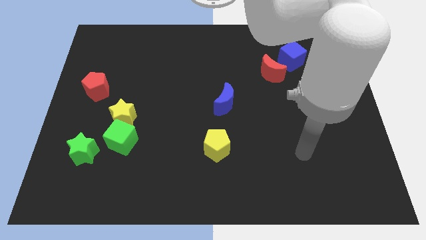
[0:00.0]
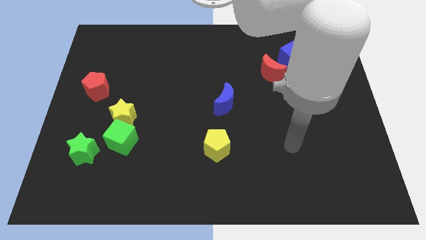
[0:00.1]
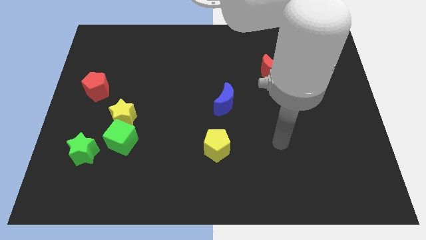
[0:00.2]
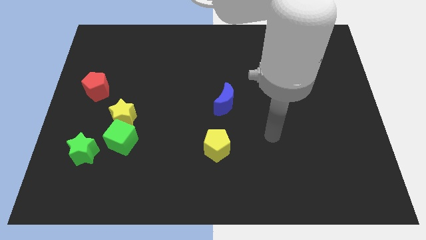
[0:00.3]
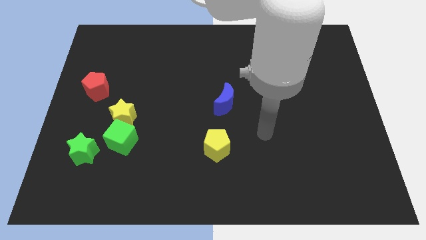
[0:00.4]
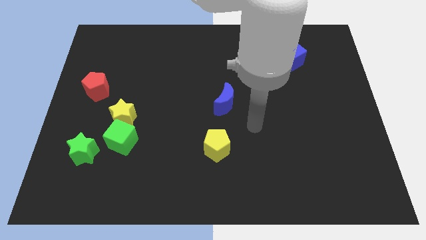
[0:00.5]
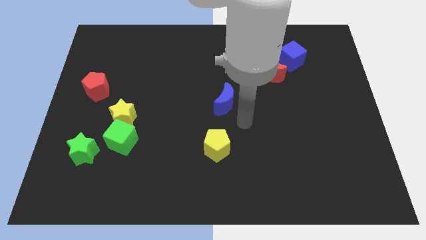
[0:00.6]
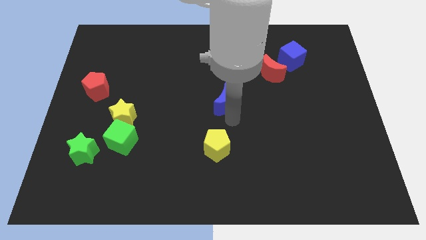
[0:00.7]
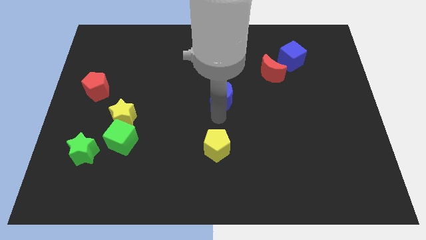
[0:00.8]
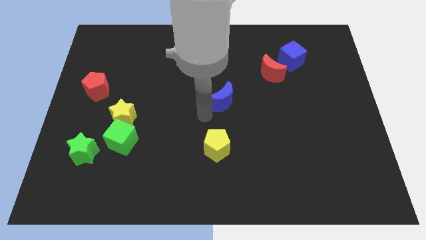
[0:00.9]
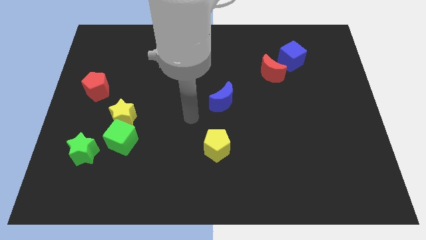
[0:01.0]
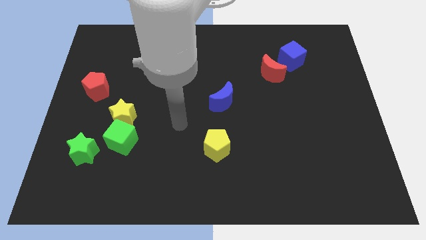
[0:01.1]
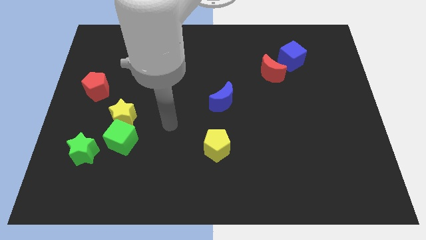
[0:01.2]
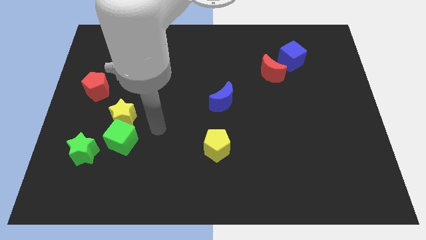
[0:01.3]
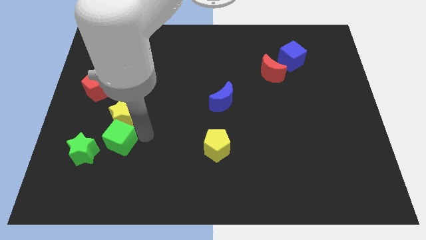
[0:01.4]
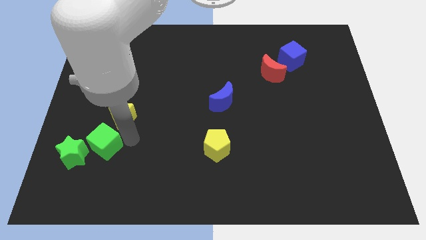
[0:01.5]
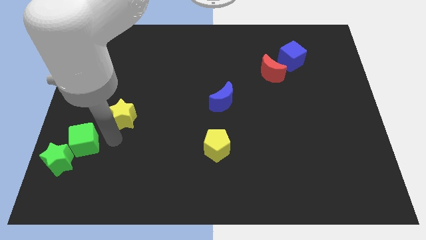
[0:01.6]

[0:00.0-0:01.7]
move the yellow star away from the green cube

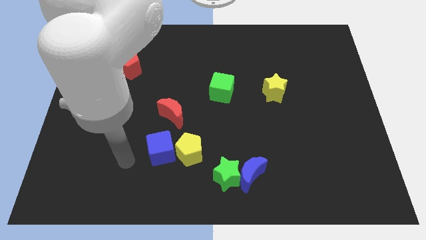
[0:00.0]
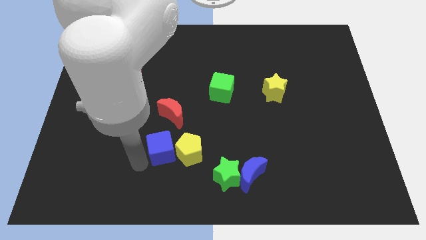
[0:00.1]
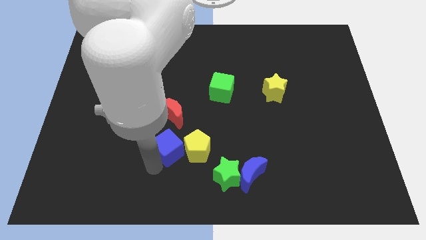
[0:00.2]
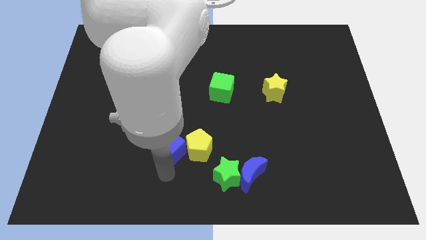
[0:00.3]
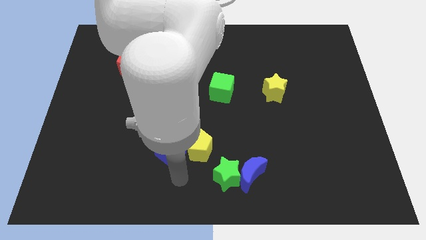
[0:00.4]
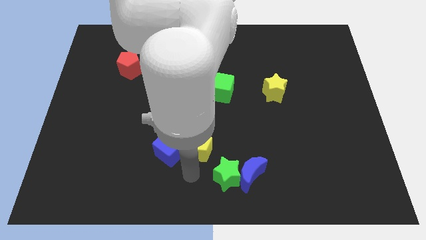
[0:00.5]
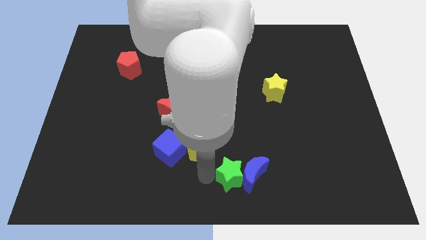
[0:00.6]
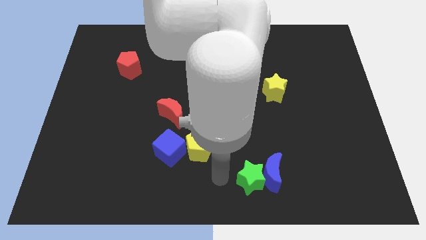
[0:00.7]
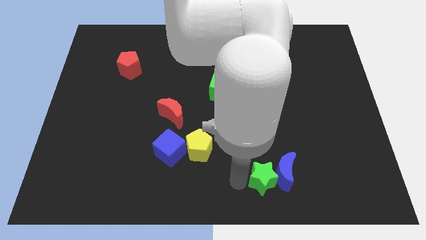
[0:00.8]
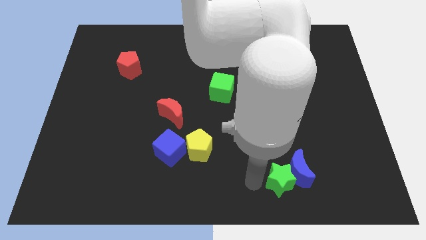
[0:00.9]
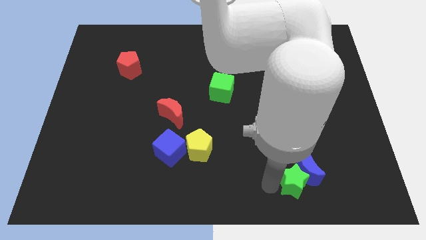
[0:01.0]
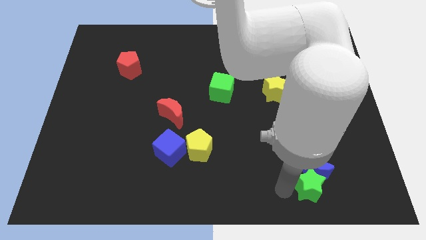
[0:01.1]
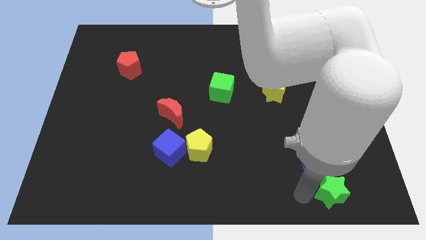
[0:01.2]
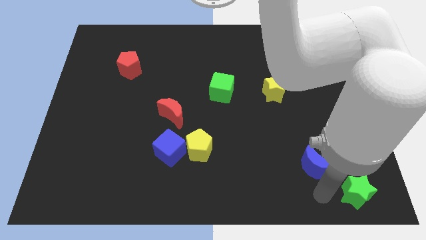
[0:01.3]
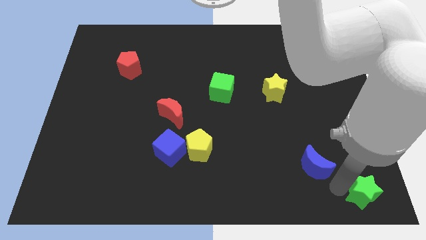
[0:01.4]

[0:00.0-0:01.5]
separate the blue moon from the green star

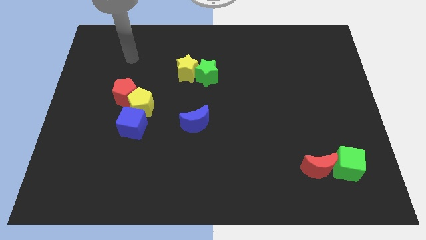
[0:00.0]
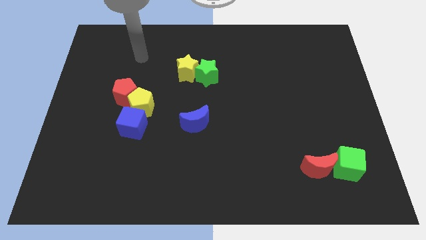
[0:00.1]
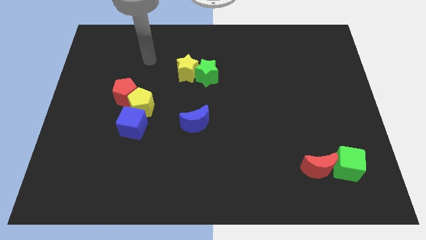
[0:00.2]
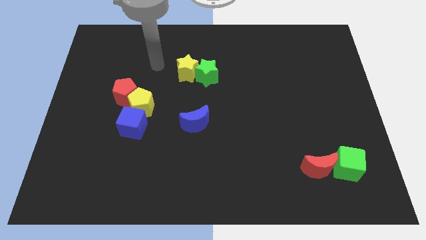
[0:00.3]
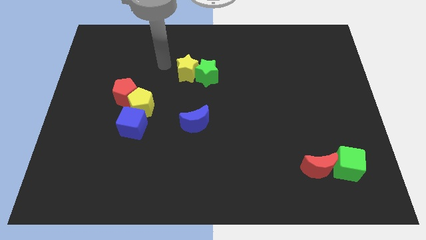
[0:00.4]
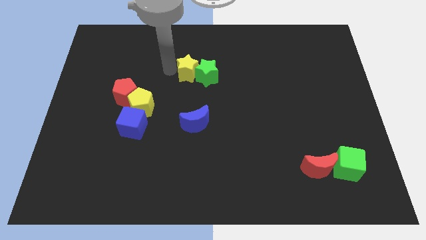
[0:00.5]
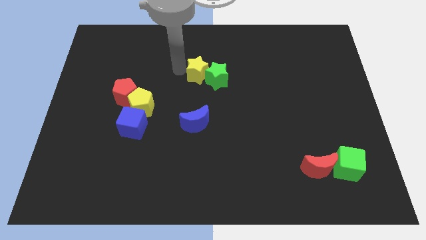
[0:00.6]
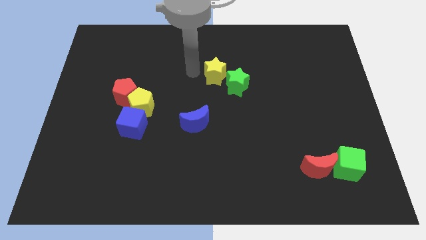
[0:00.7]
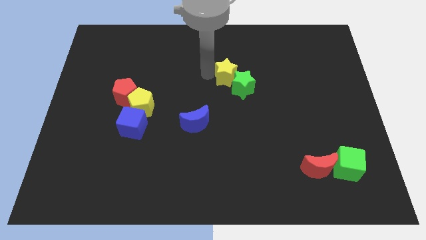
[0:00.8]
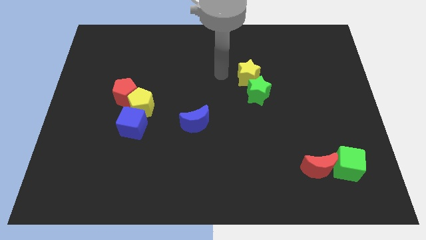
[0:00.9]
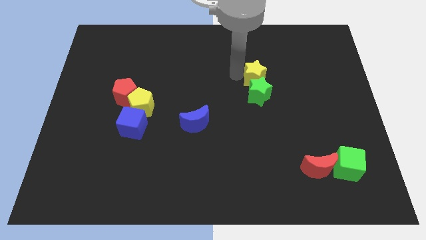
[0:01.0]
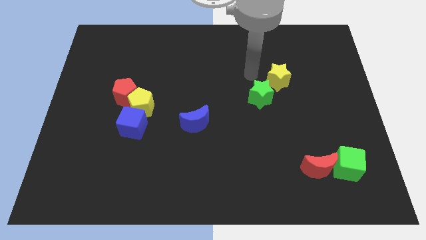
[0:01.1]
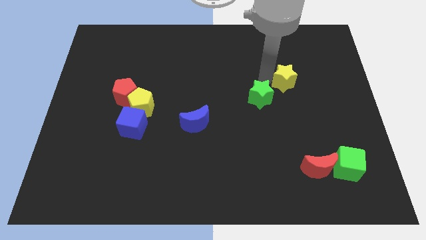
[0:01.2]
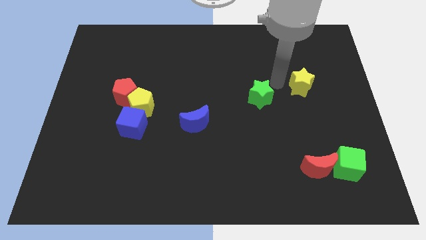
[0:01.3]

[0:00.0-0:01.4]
separate the green star from the yellow star

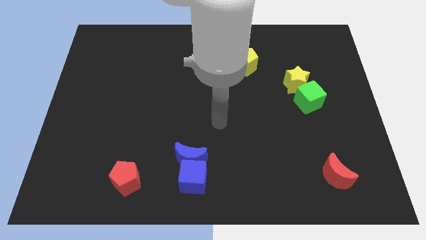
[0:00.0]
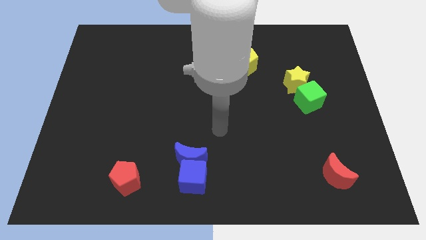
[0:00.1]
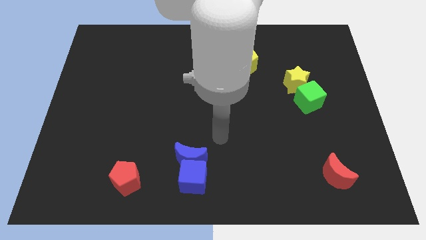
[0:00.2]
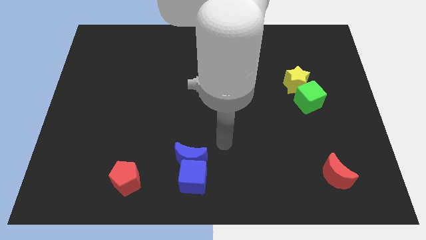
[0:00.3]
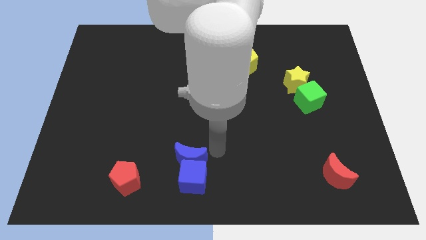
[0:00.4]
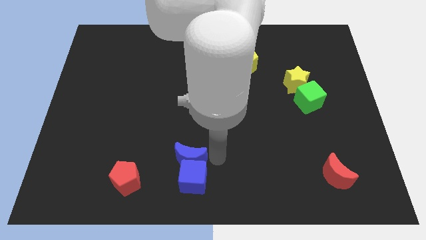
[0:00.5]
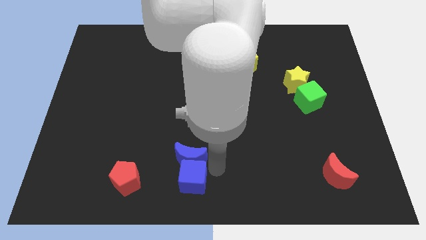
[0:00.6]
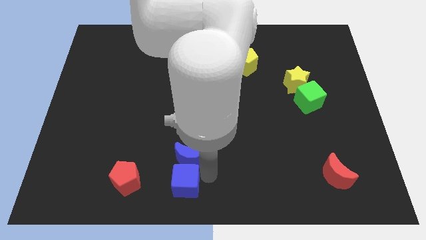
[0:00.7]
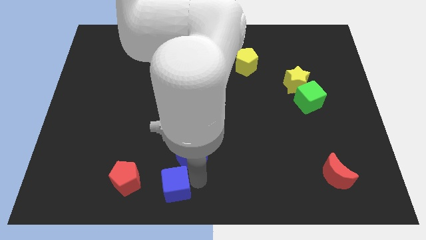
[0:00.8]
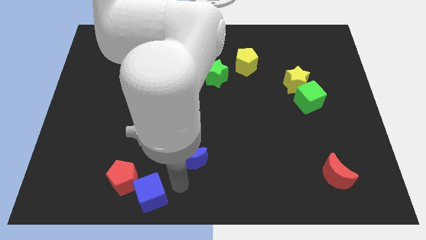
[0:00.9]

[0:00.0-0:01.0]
separate the blue moon from the blue cube

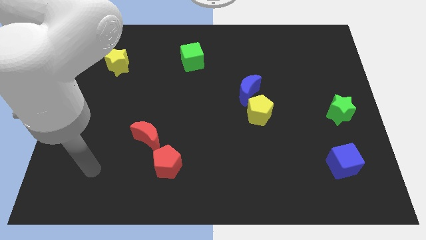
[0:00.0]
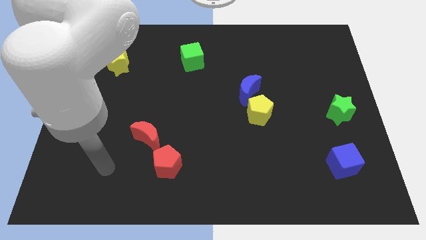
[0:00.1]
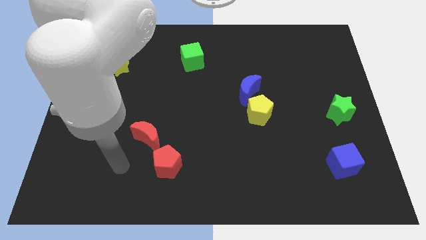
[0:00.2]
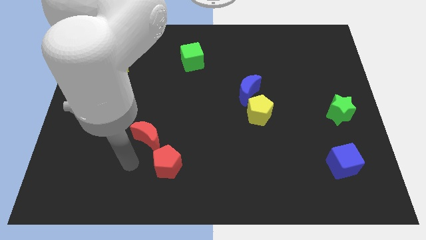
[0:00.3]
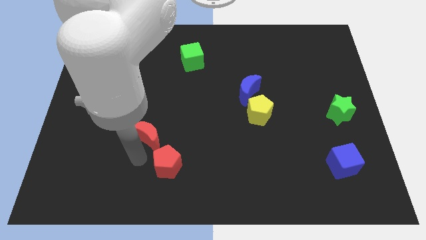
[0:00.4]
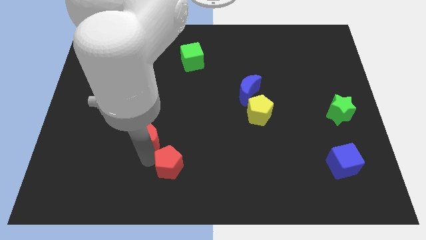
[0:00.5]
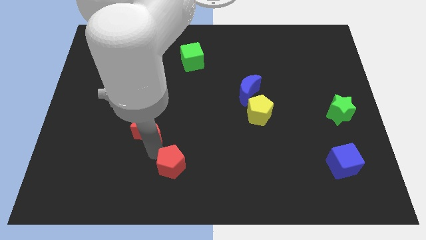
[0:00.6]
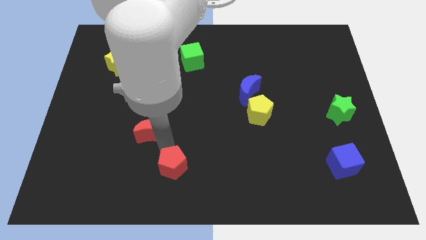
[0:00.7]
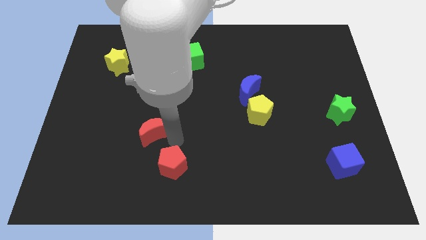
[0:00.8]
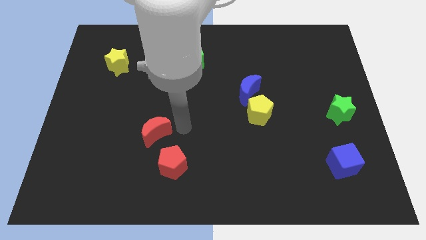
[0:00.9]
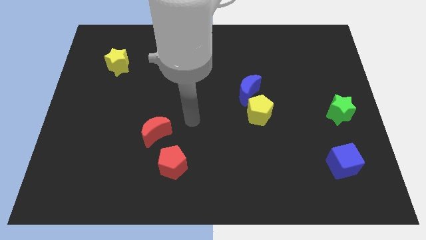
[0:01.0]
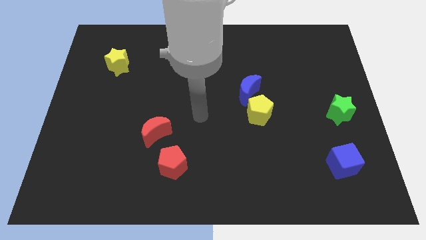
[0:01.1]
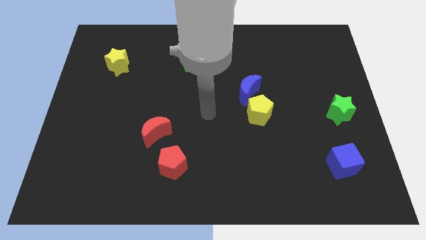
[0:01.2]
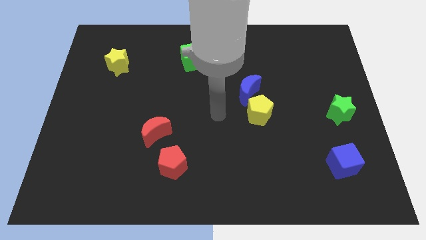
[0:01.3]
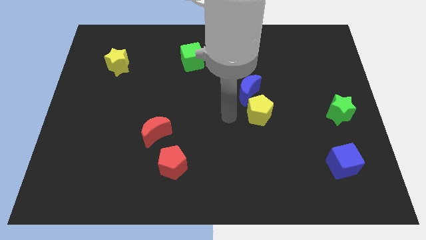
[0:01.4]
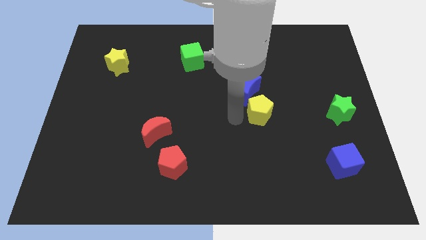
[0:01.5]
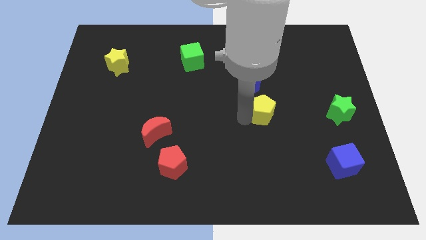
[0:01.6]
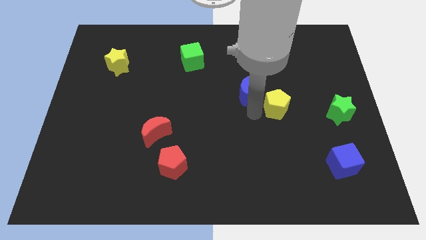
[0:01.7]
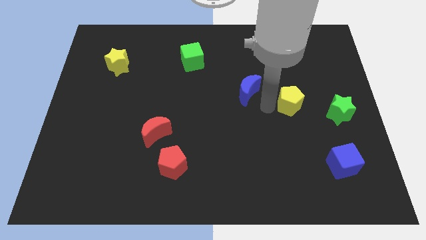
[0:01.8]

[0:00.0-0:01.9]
move the blue moon away from the yellow pentagon

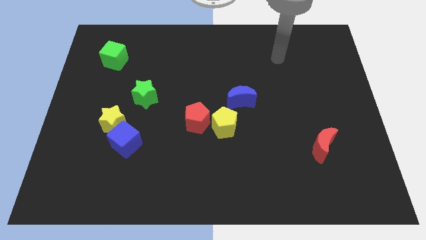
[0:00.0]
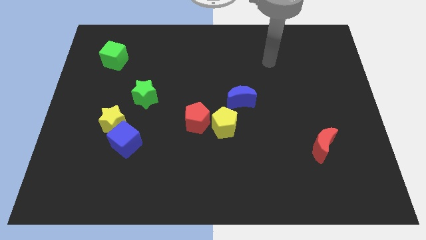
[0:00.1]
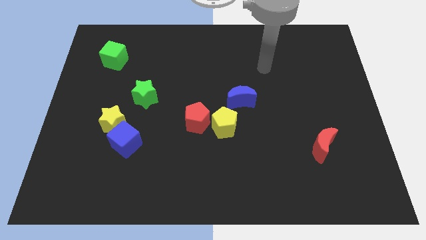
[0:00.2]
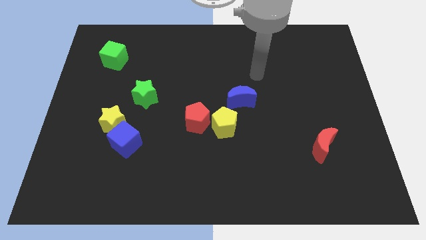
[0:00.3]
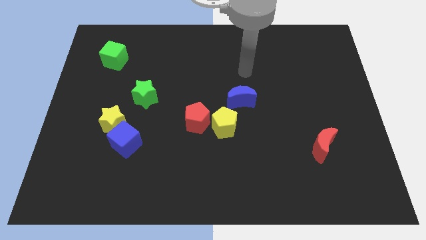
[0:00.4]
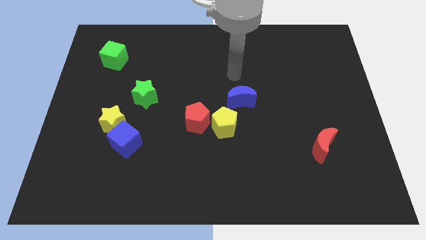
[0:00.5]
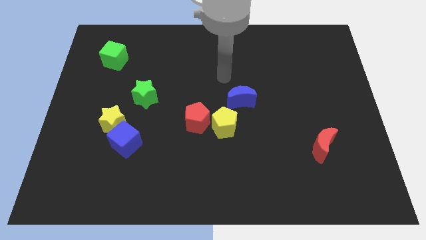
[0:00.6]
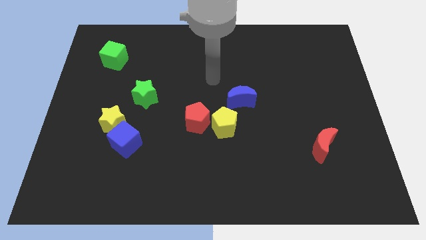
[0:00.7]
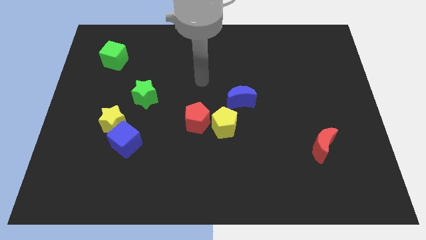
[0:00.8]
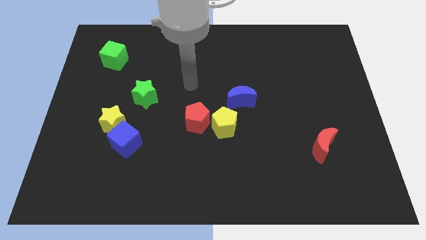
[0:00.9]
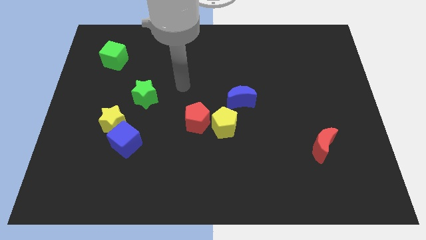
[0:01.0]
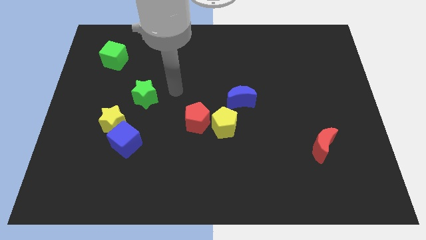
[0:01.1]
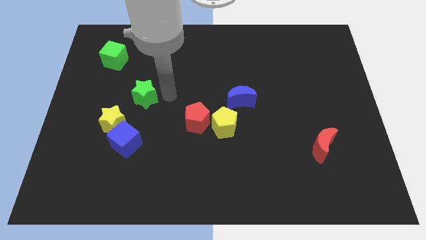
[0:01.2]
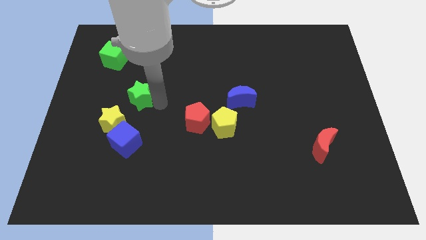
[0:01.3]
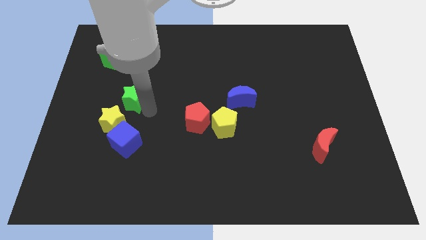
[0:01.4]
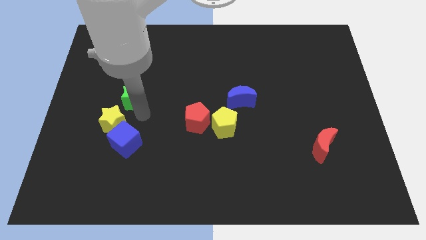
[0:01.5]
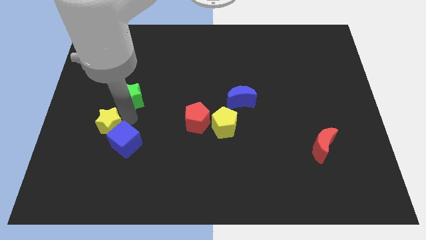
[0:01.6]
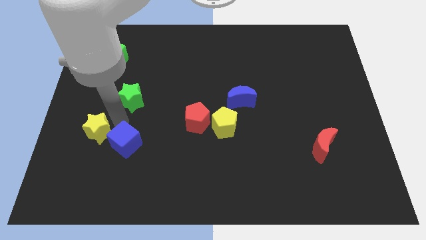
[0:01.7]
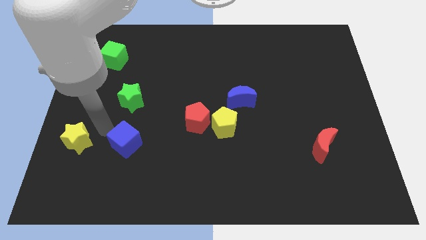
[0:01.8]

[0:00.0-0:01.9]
pull the blue cube apart from the yellow star
